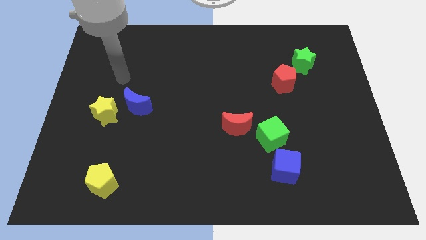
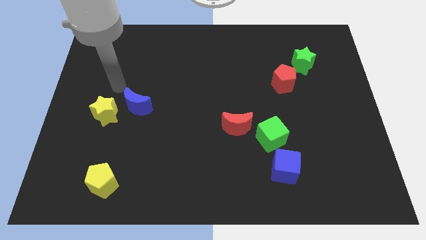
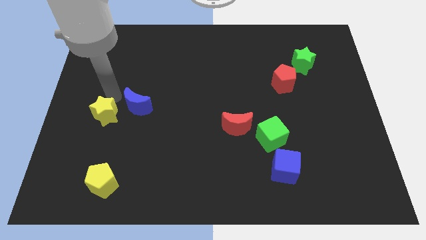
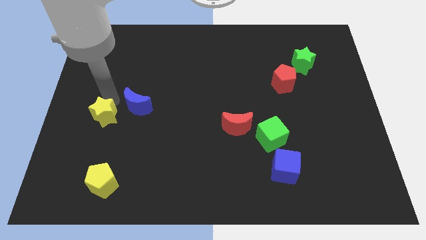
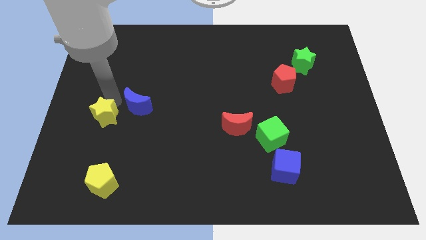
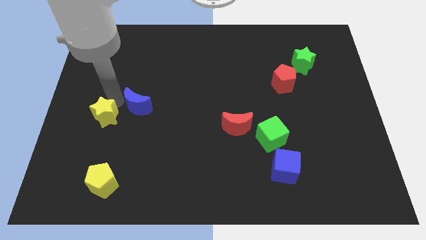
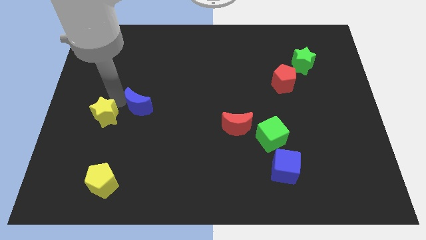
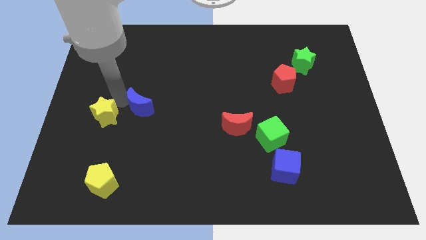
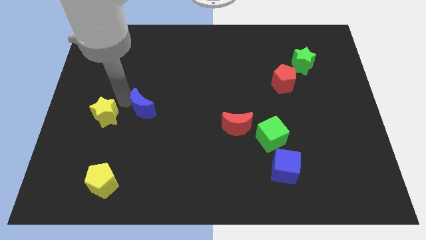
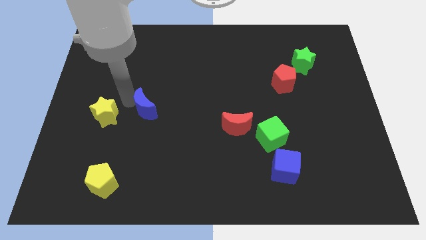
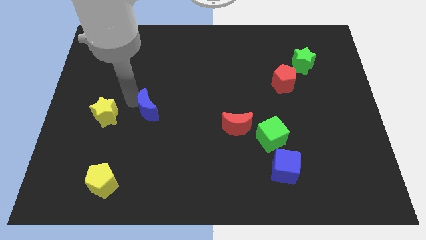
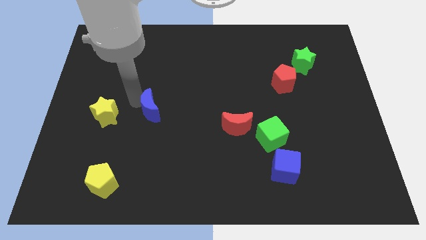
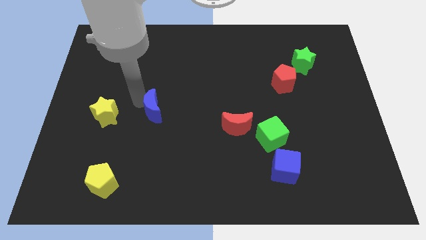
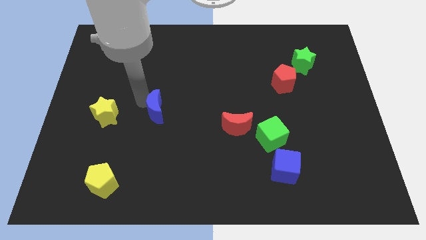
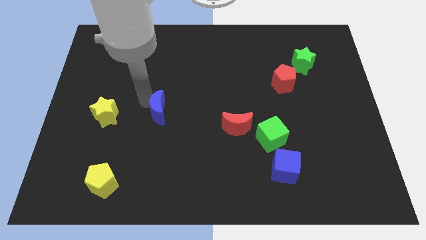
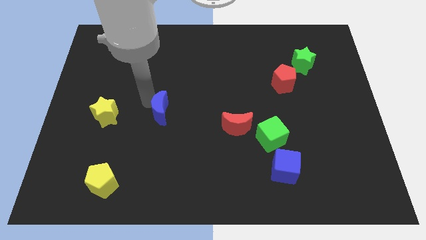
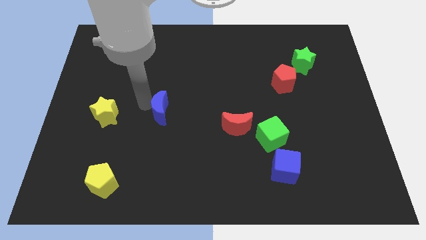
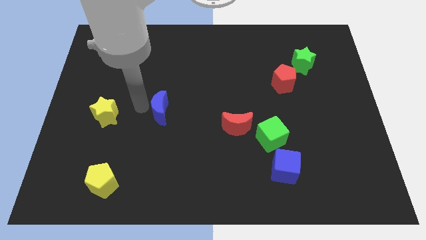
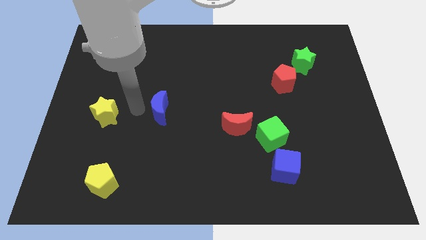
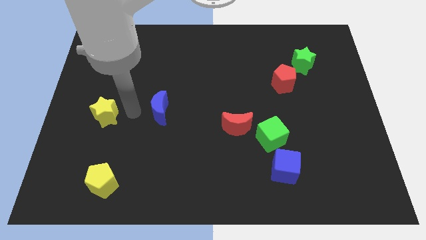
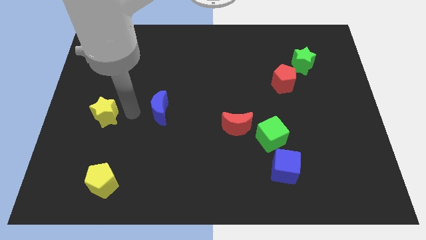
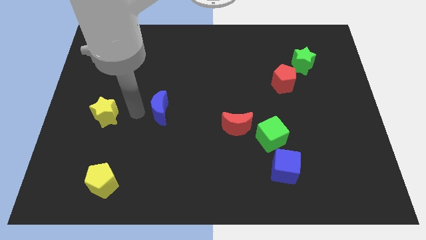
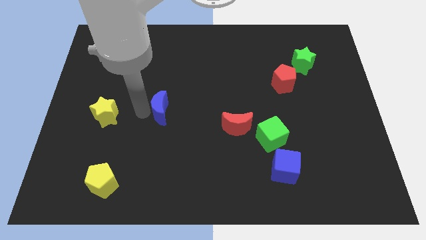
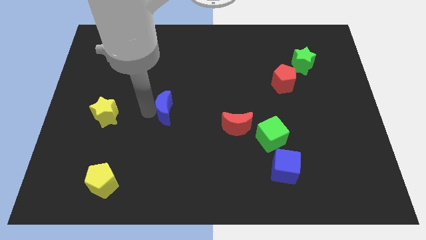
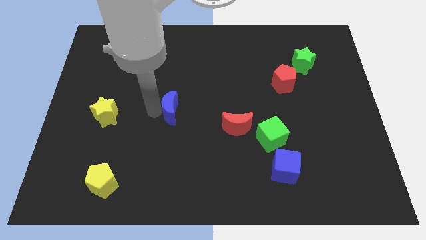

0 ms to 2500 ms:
move the blue moon to the right a bit

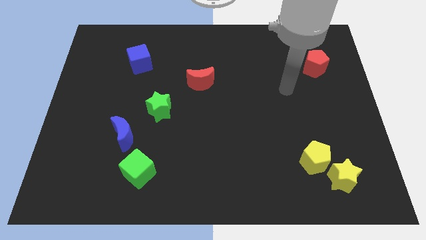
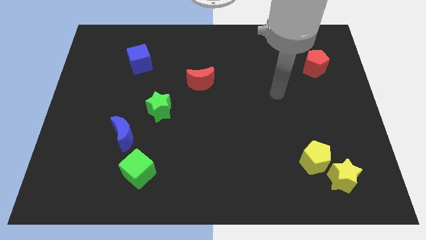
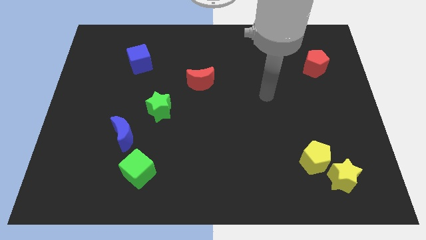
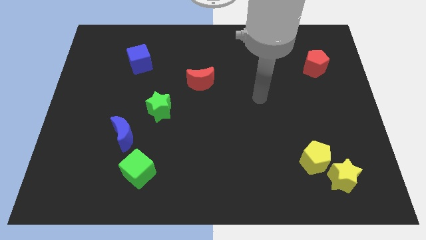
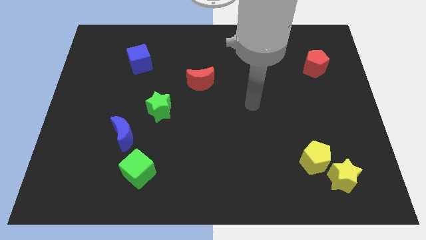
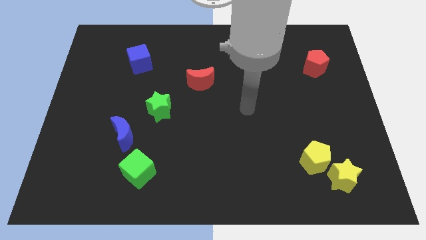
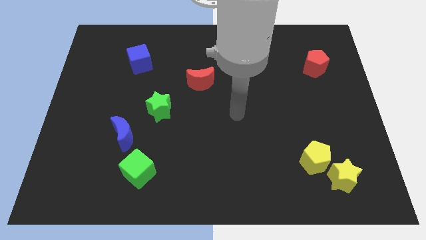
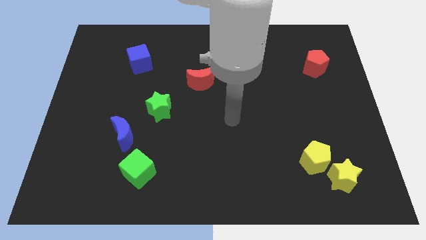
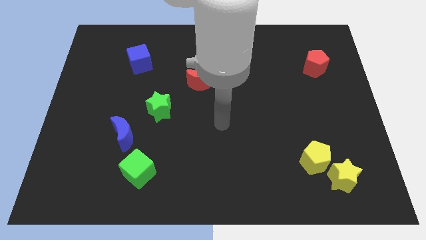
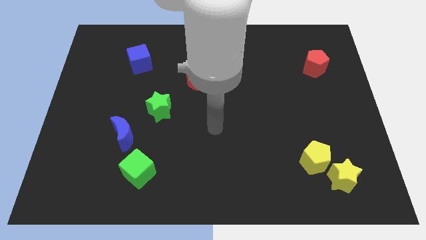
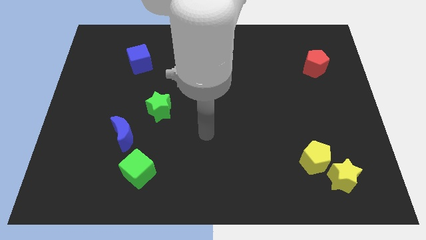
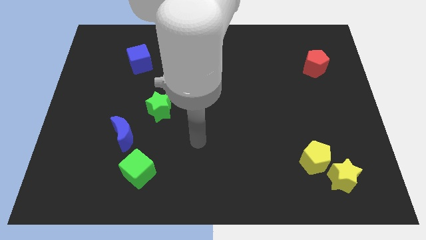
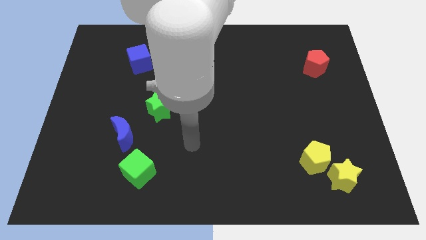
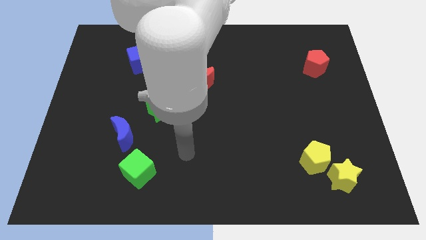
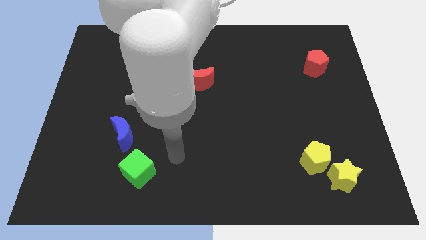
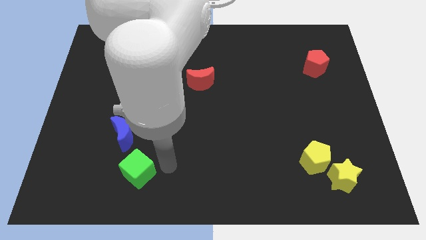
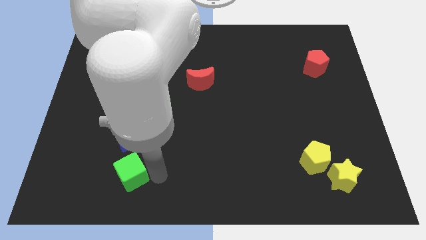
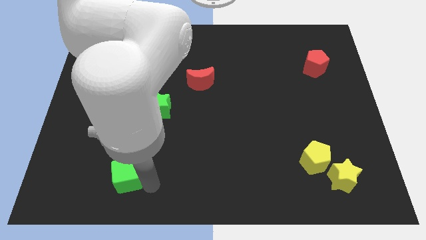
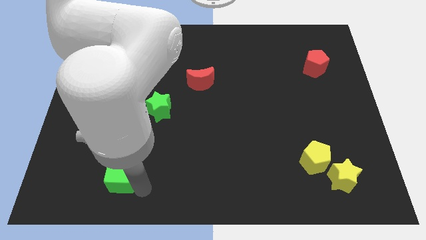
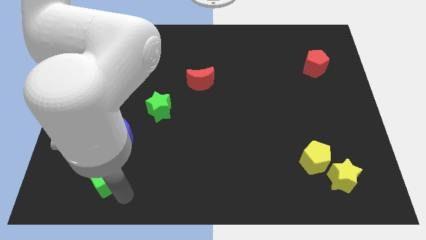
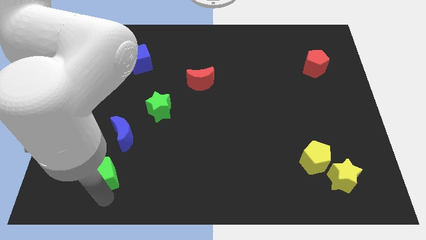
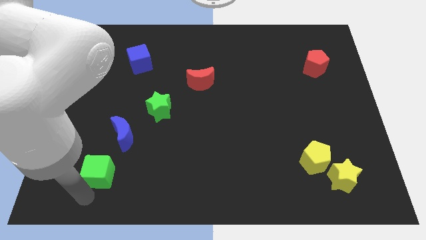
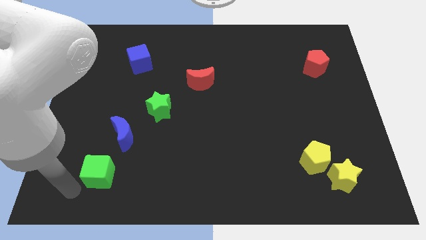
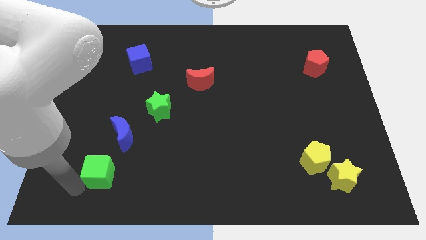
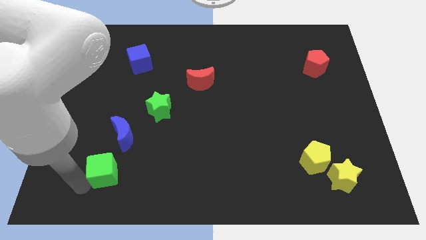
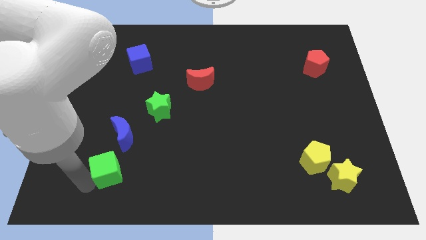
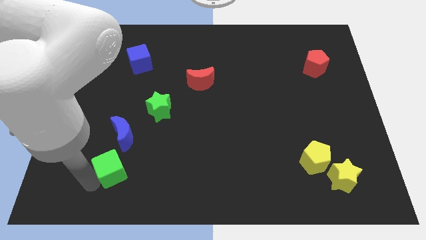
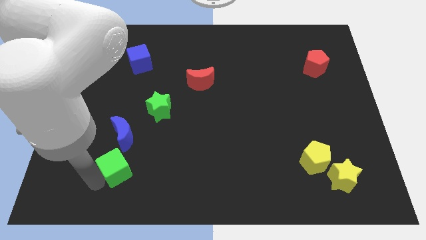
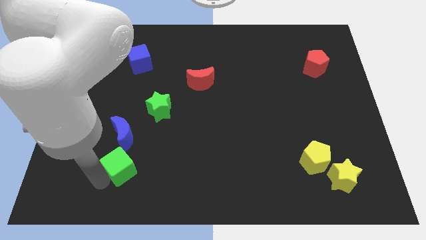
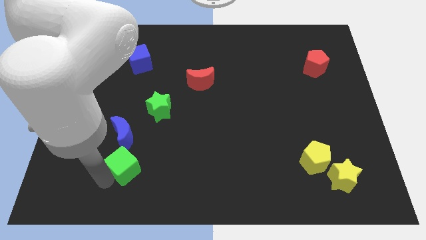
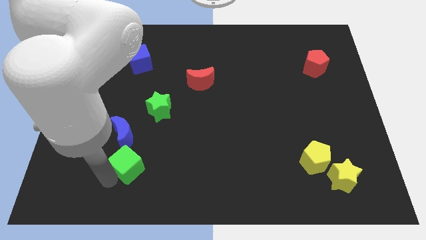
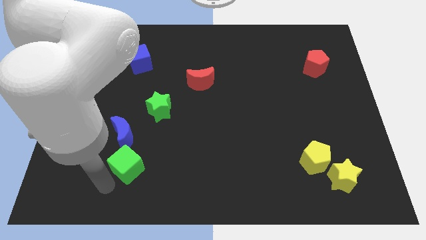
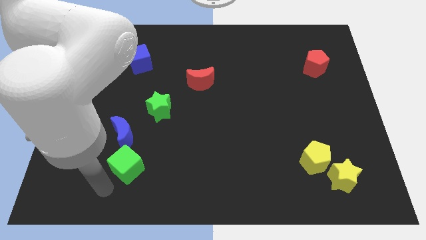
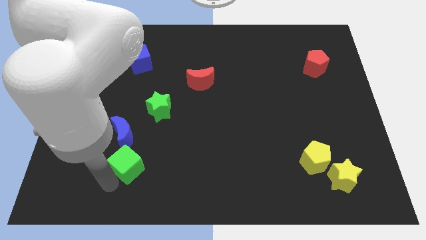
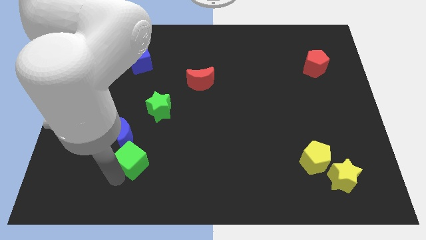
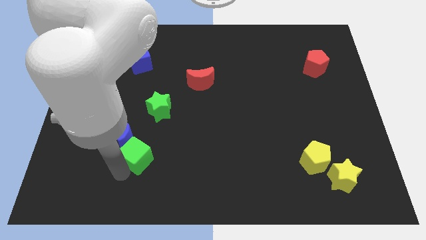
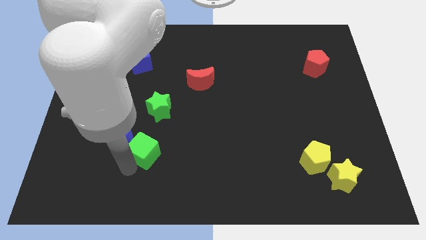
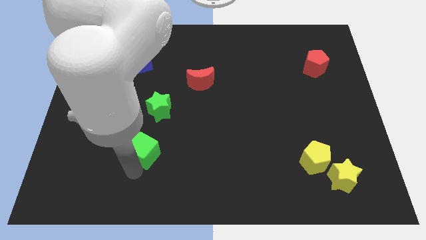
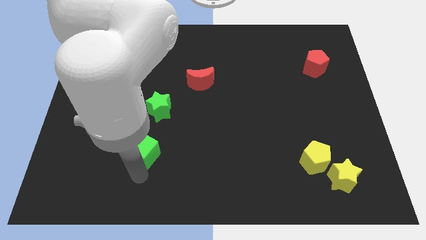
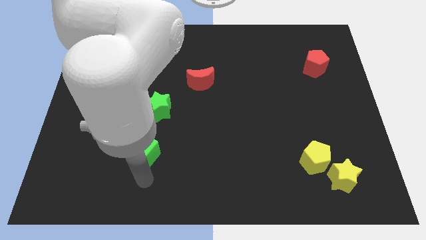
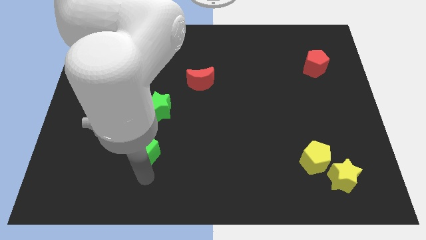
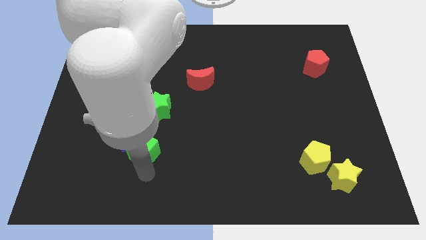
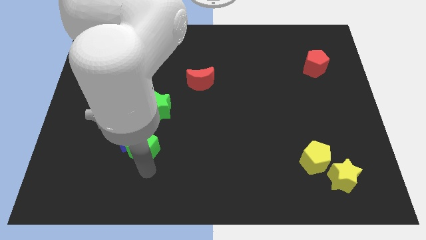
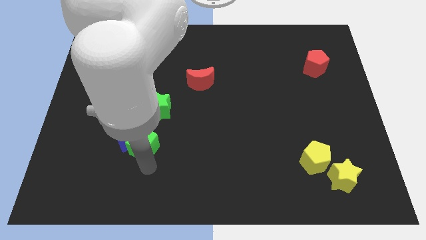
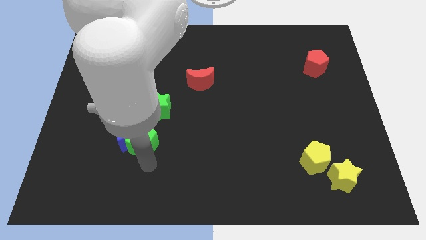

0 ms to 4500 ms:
push the green cube upwards a bit

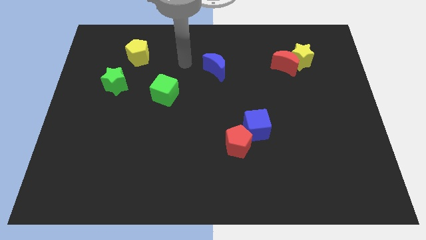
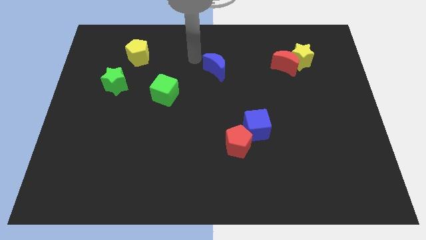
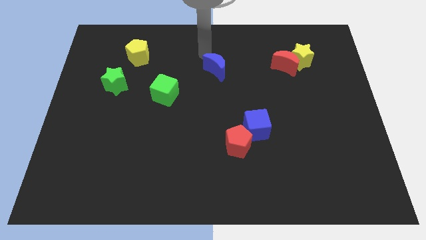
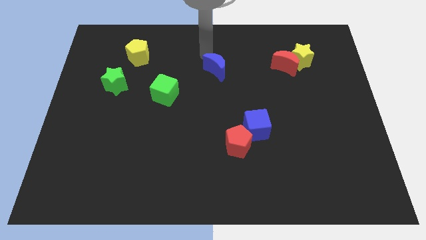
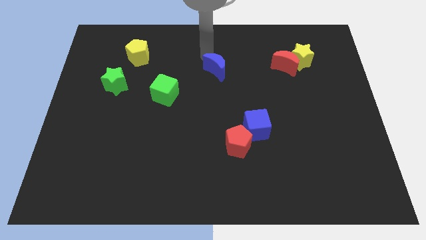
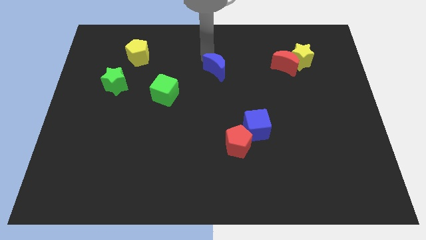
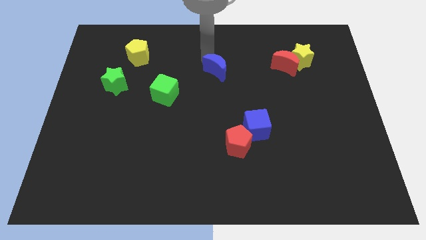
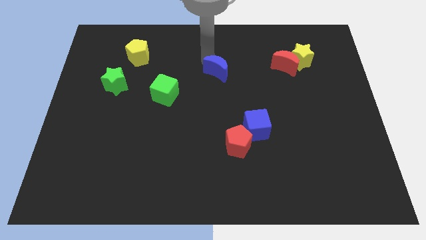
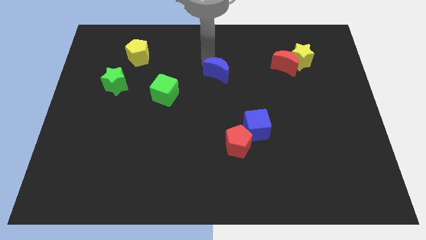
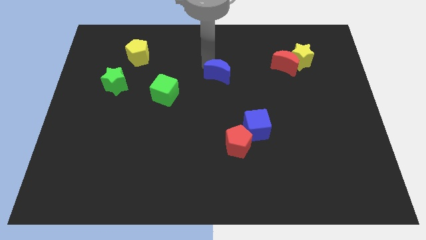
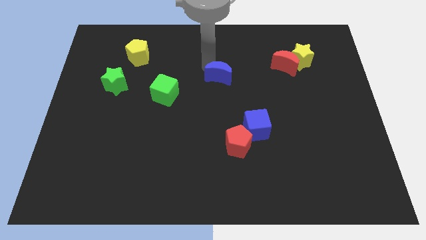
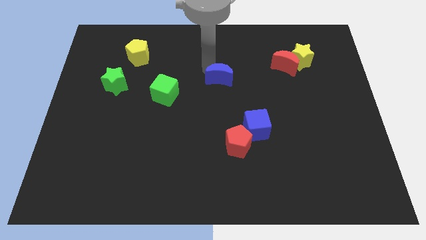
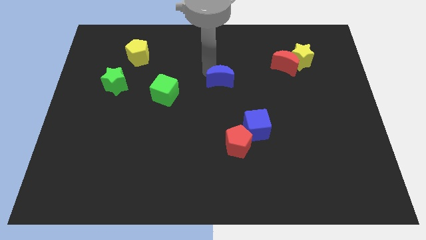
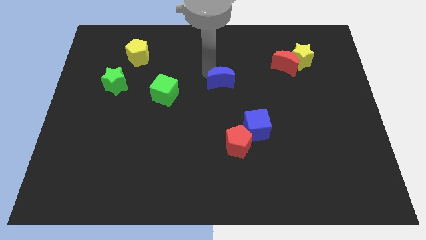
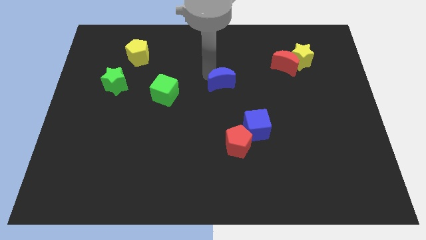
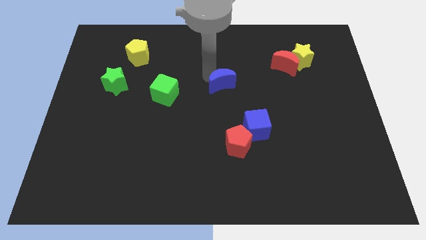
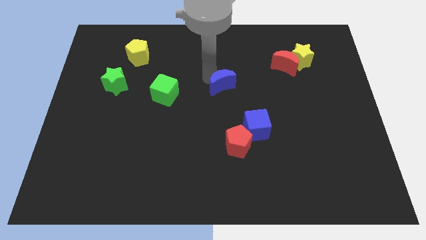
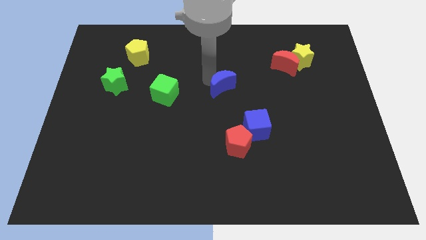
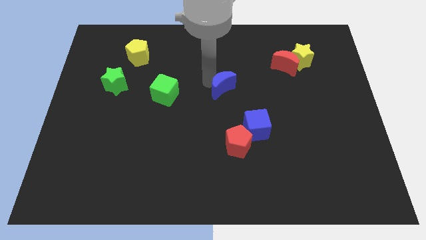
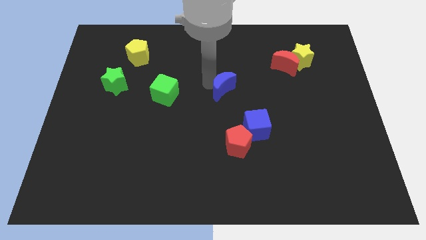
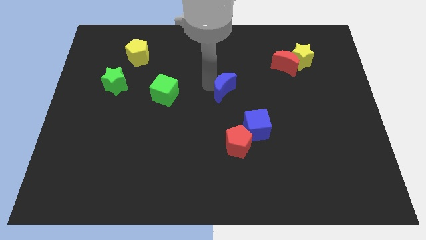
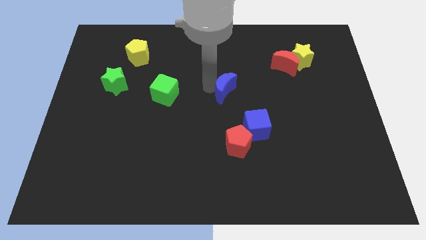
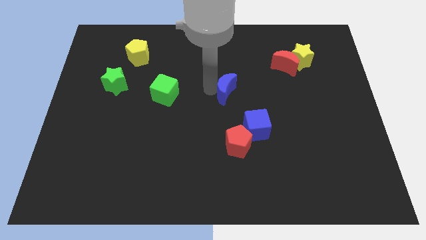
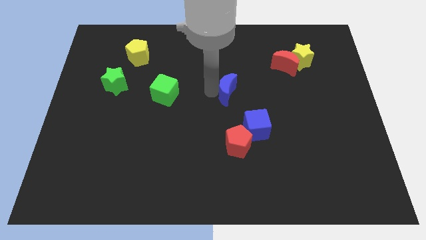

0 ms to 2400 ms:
move the blue moon downwards and to the right slightly
